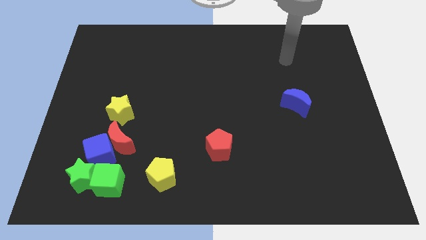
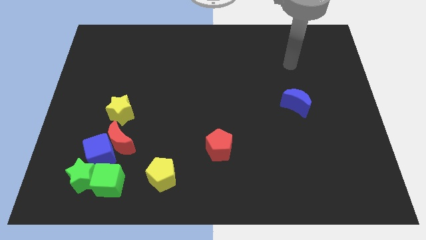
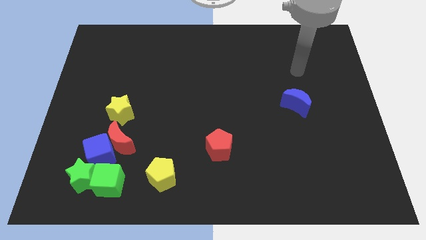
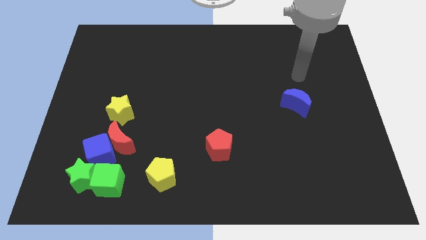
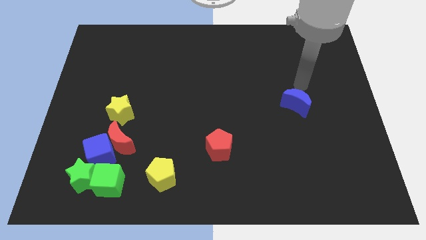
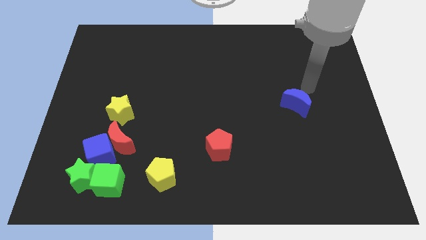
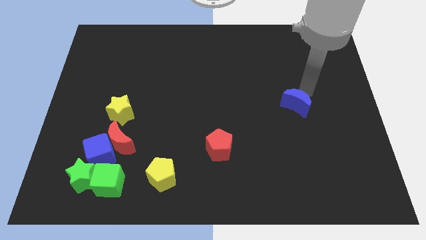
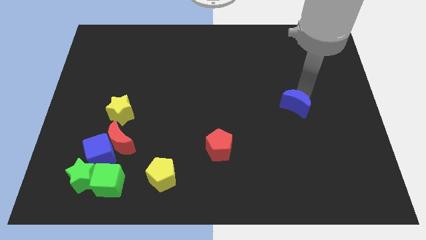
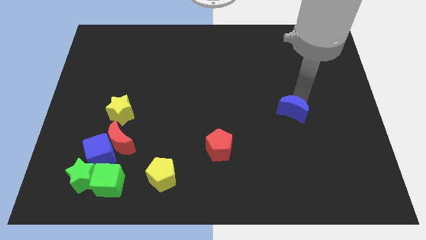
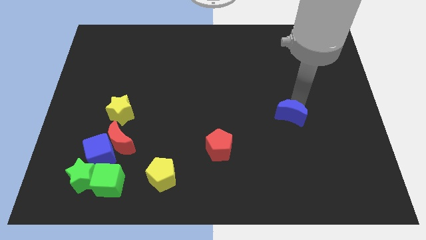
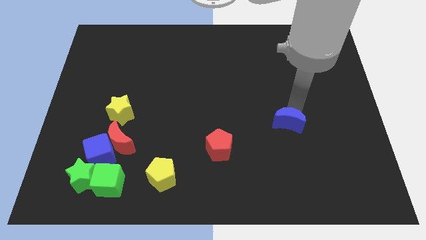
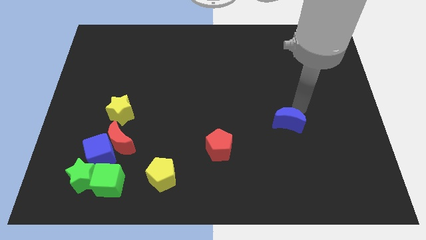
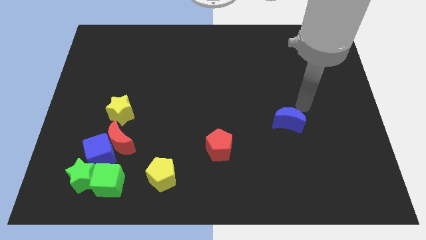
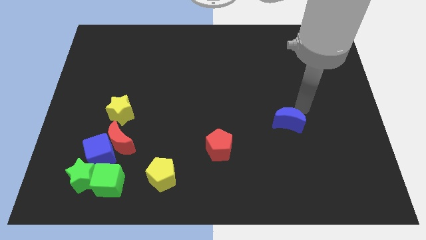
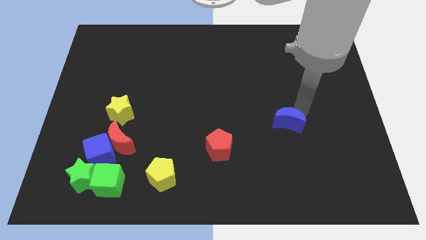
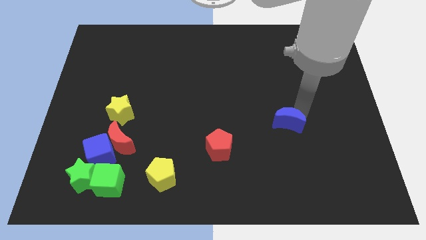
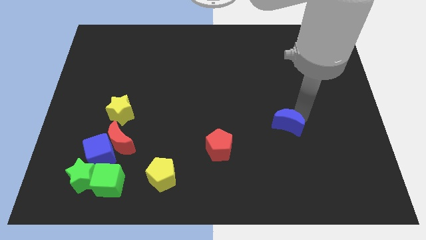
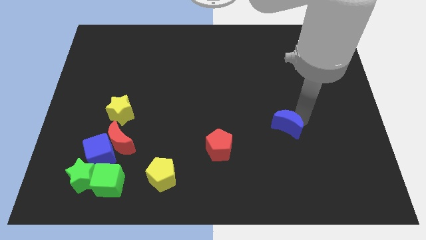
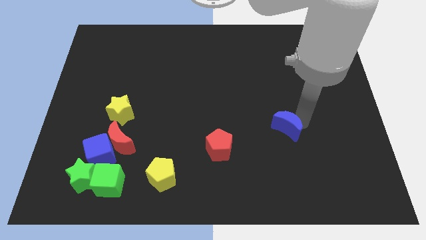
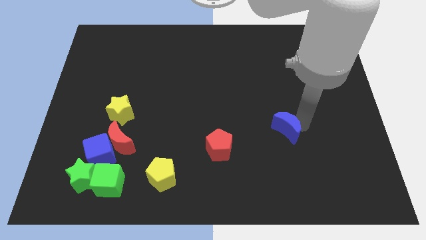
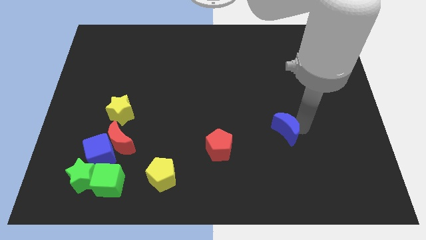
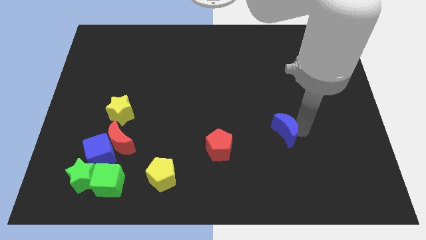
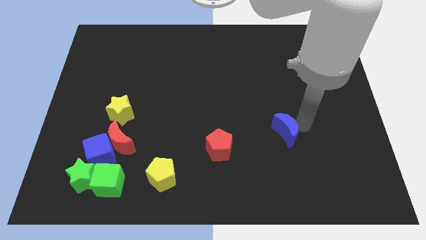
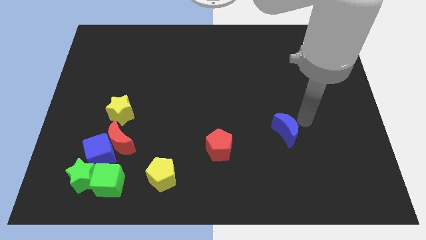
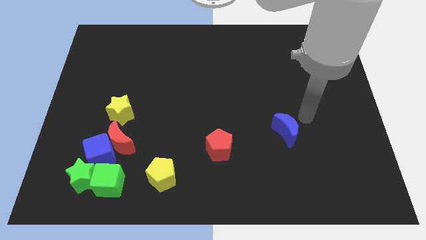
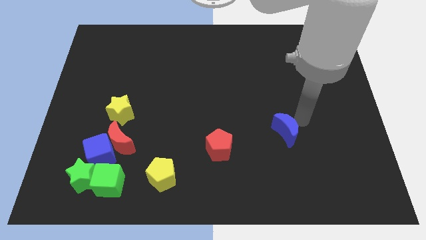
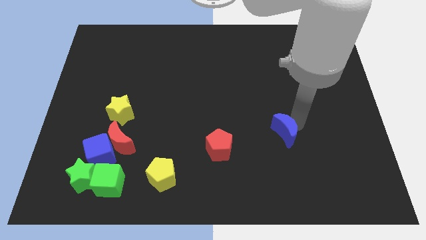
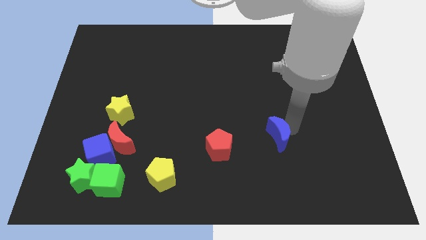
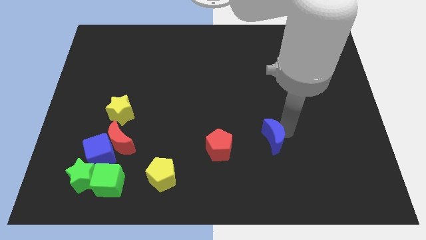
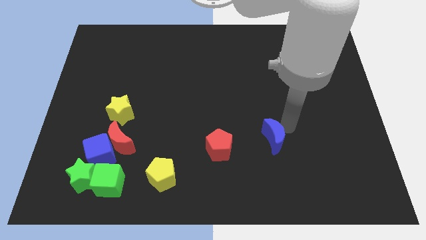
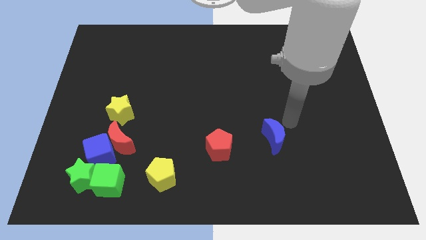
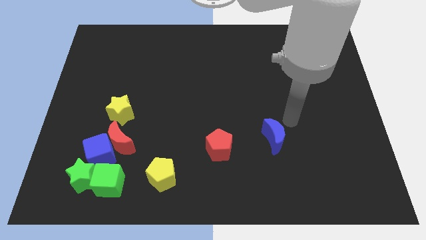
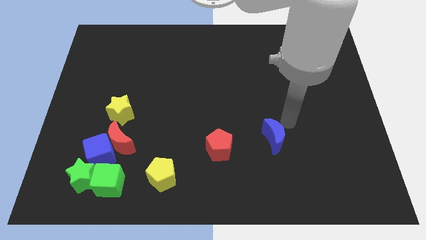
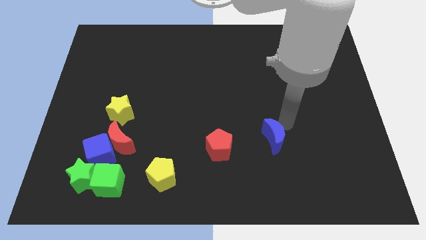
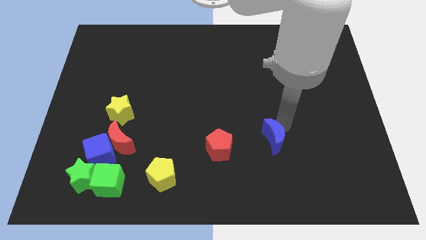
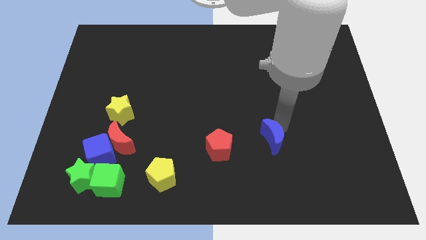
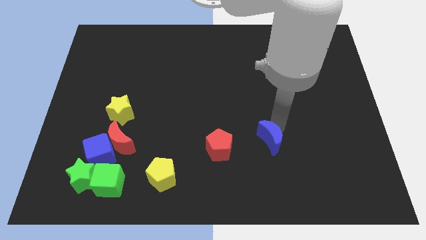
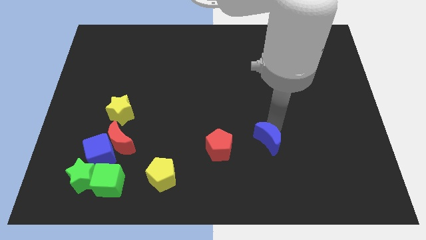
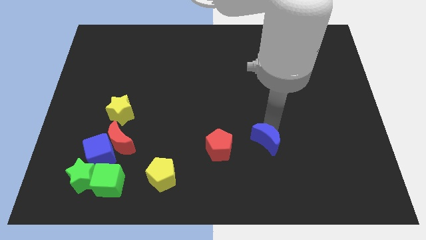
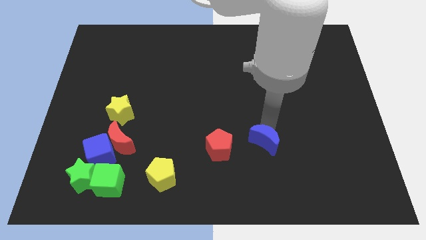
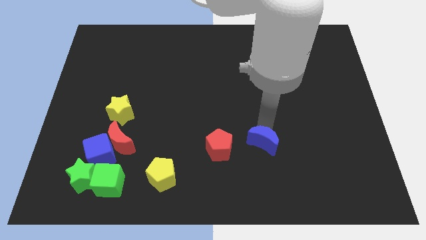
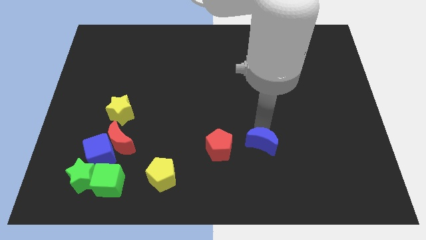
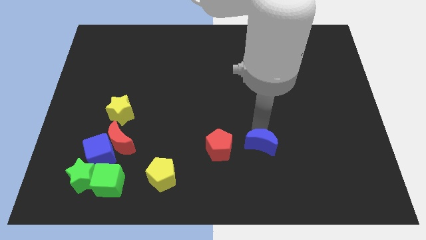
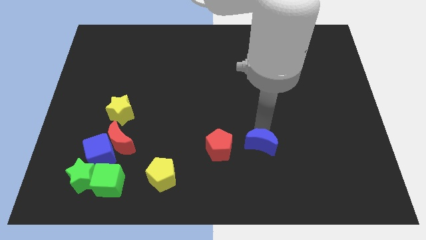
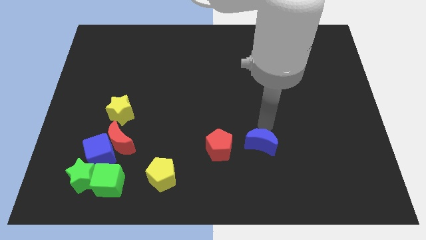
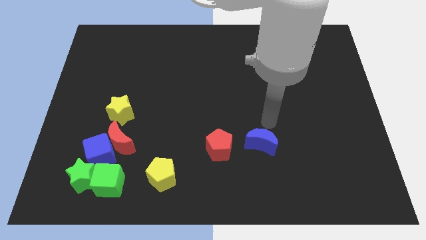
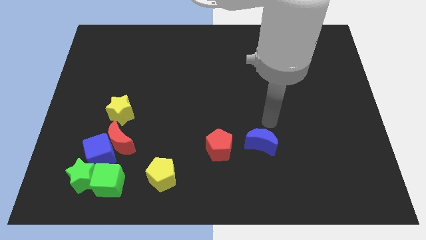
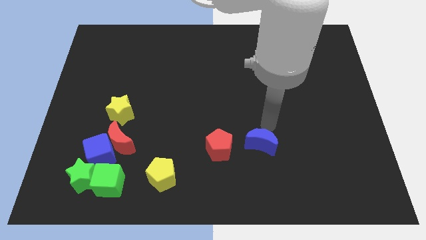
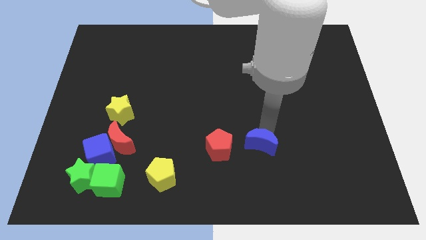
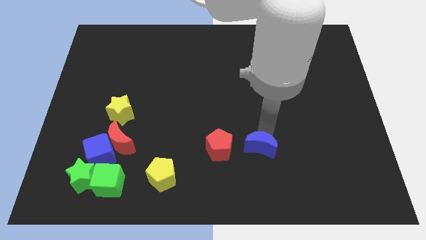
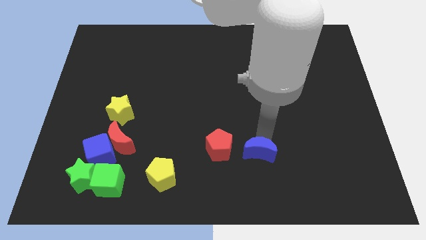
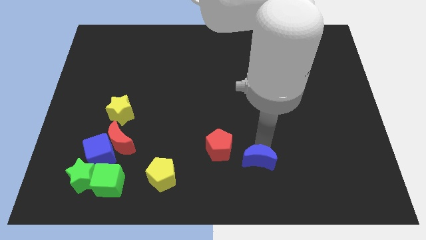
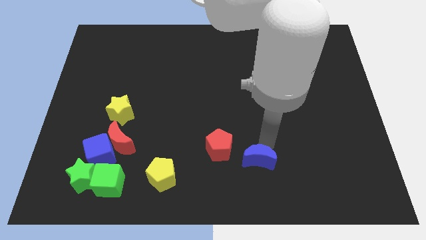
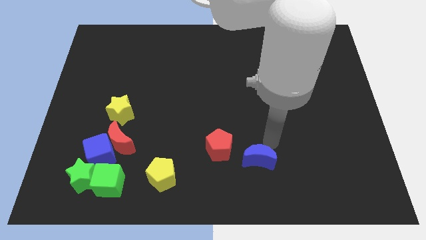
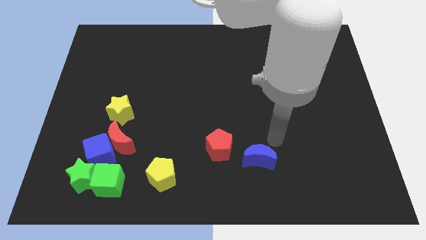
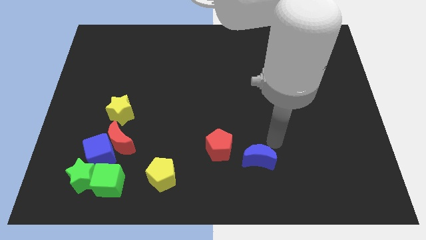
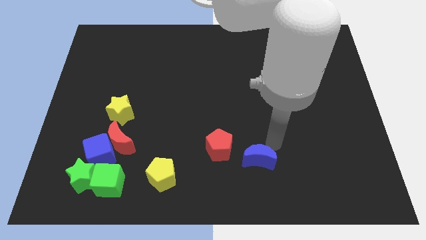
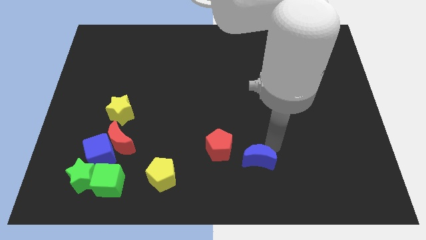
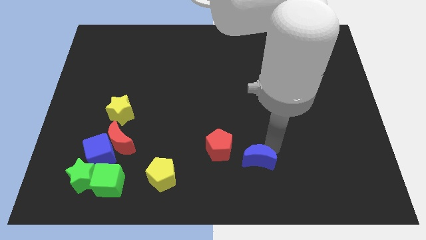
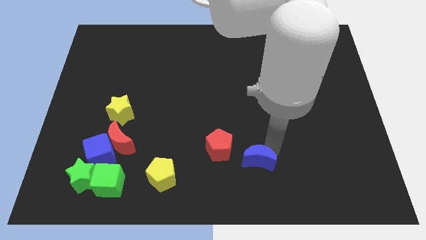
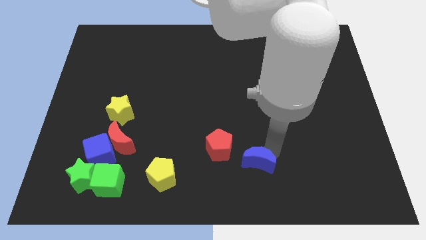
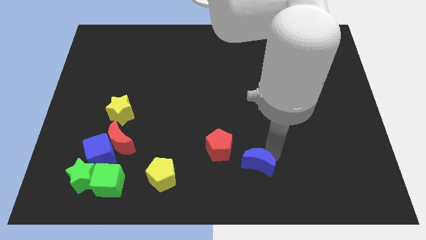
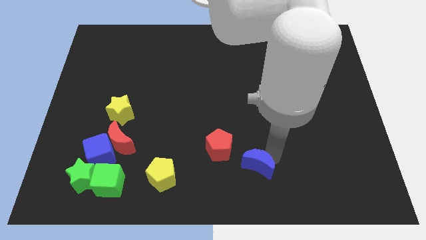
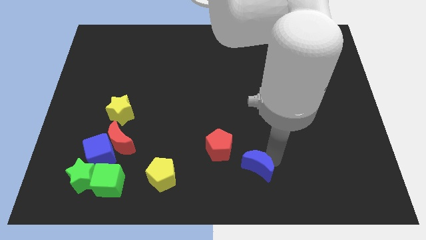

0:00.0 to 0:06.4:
move the blue moon to the bottom side
